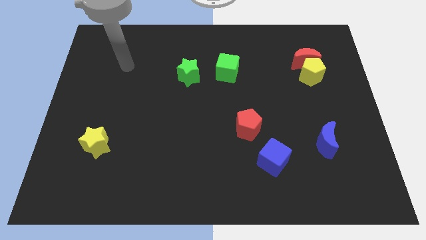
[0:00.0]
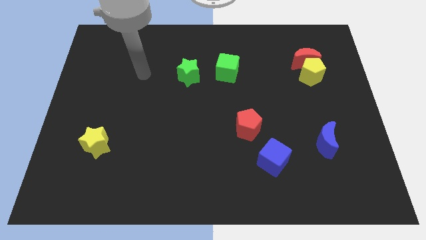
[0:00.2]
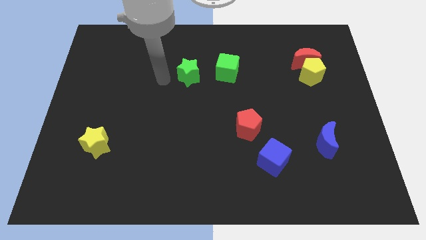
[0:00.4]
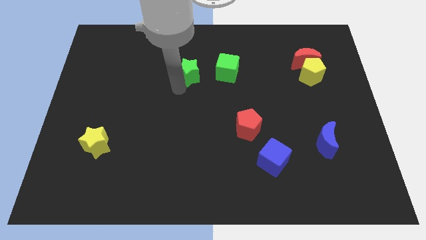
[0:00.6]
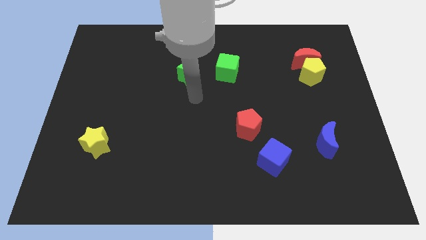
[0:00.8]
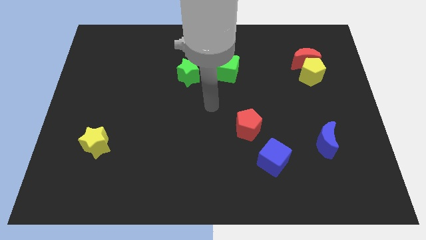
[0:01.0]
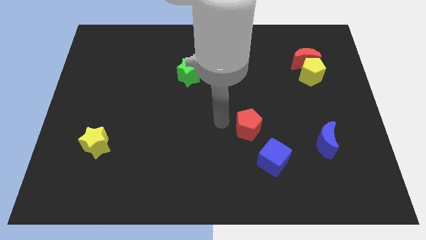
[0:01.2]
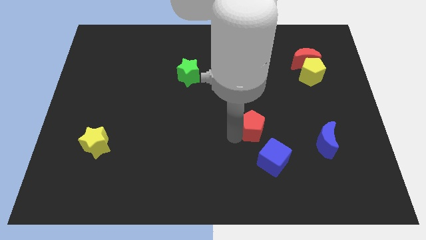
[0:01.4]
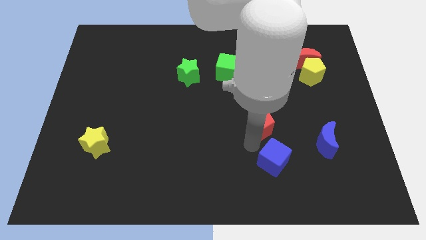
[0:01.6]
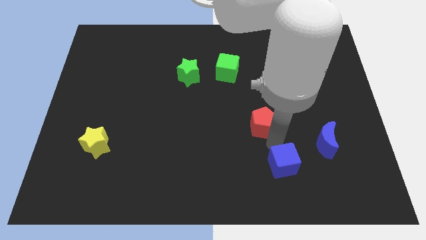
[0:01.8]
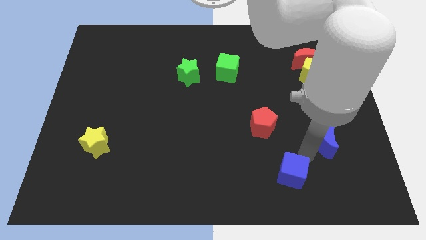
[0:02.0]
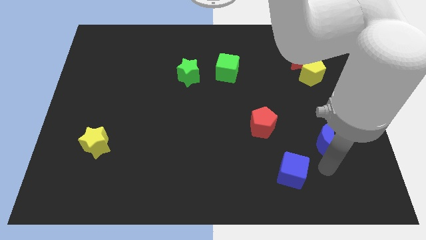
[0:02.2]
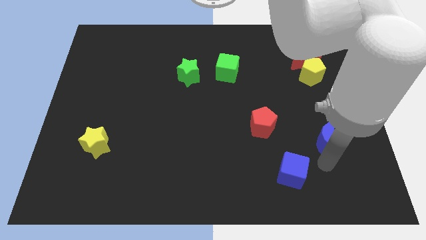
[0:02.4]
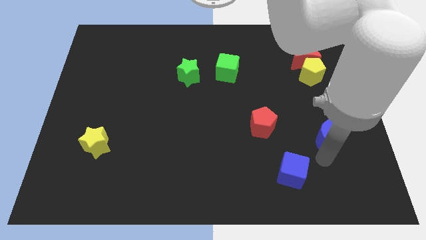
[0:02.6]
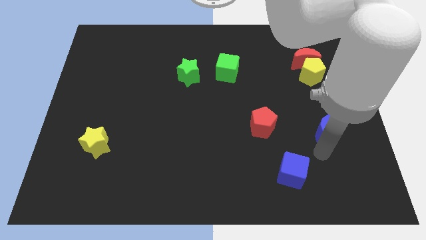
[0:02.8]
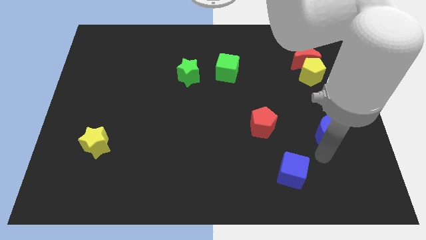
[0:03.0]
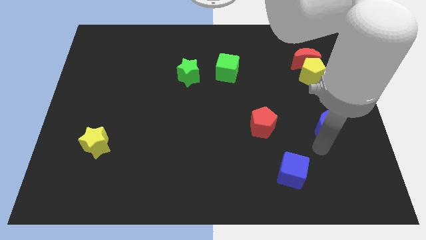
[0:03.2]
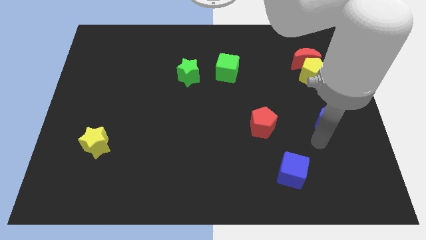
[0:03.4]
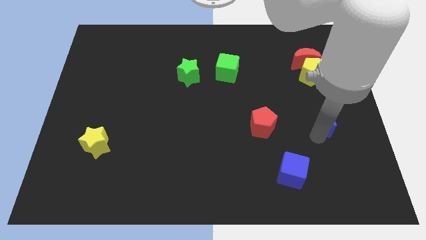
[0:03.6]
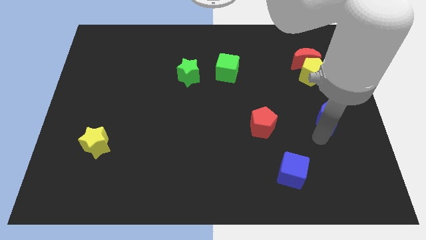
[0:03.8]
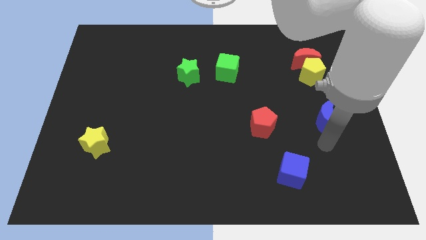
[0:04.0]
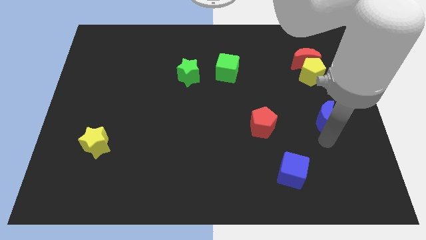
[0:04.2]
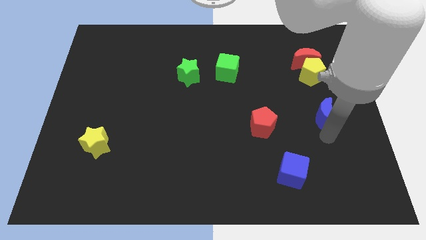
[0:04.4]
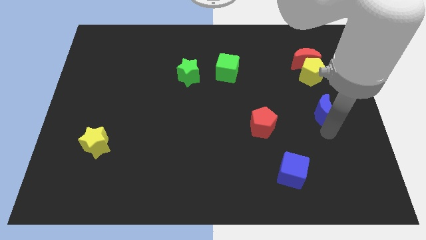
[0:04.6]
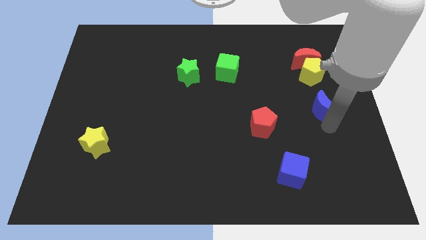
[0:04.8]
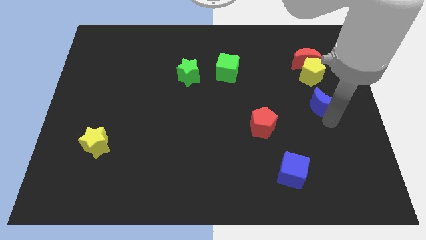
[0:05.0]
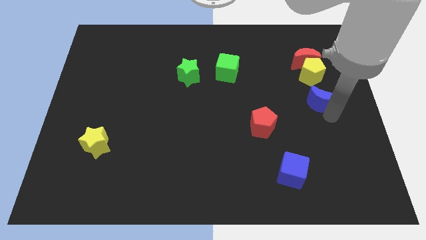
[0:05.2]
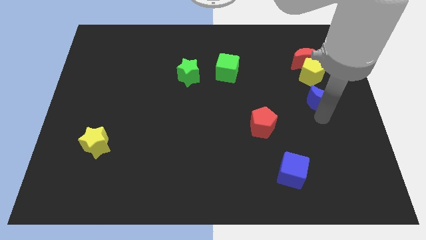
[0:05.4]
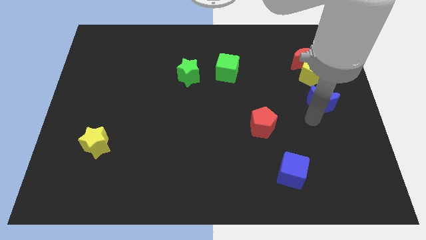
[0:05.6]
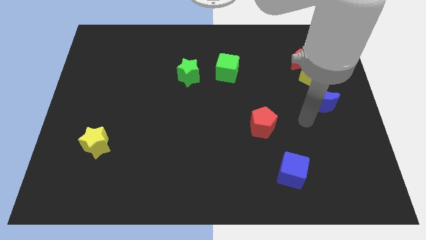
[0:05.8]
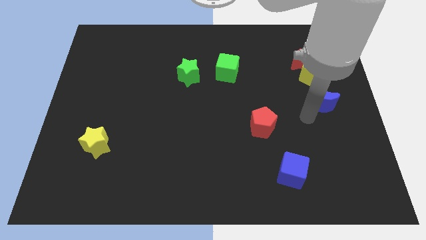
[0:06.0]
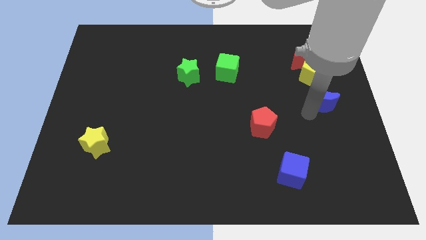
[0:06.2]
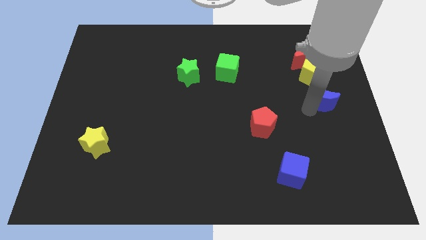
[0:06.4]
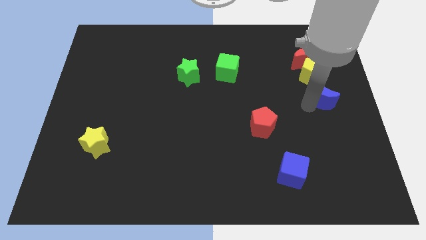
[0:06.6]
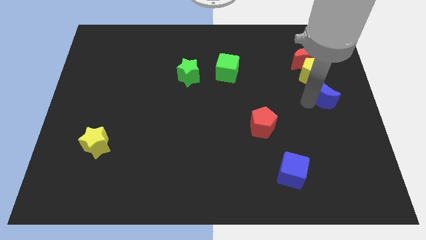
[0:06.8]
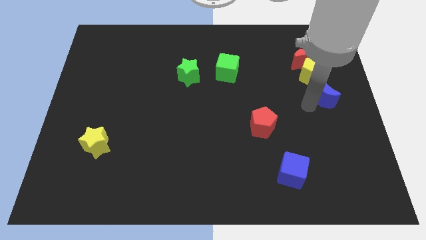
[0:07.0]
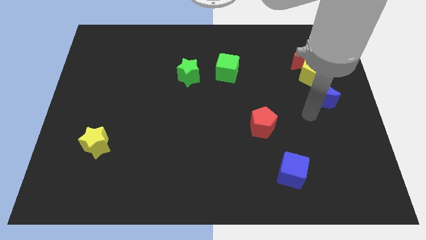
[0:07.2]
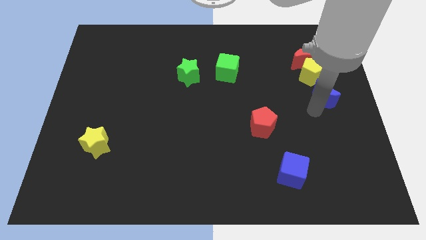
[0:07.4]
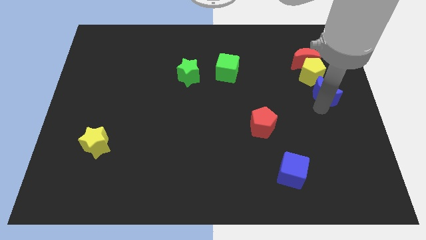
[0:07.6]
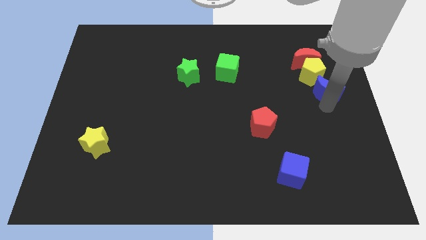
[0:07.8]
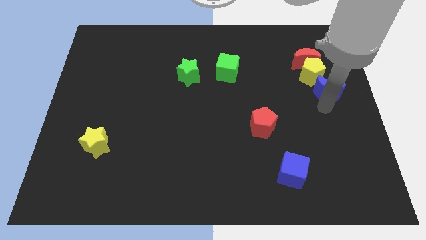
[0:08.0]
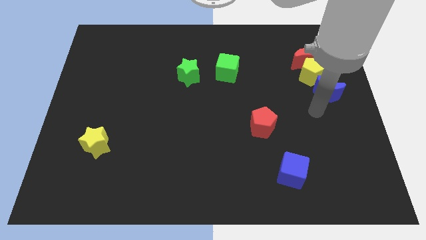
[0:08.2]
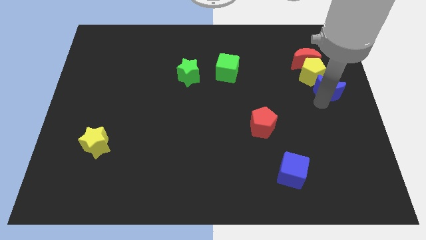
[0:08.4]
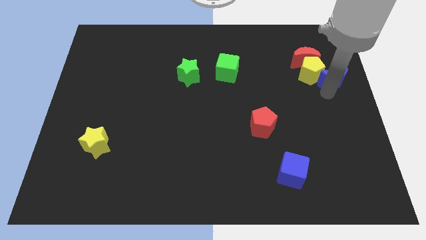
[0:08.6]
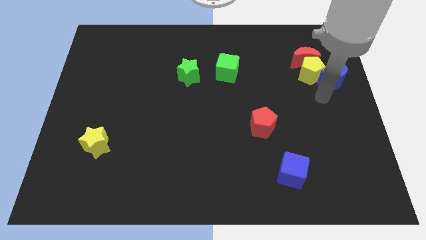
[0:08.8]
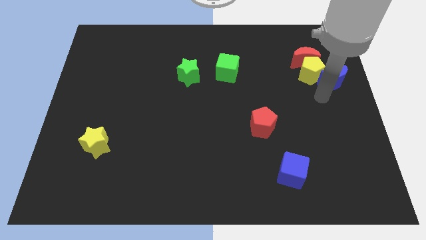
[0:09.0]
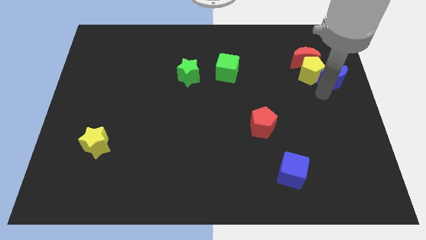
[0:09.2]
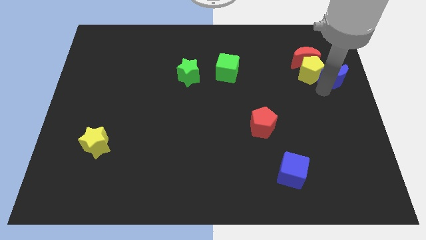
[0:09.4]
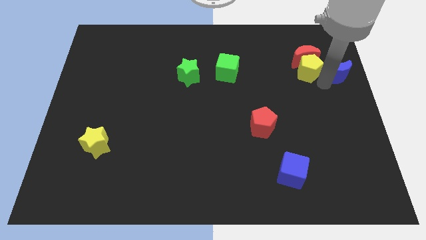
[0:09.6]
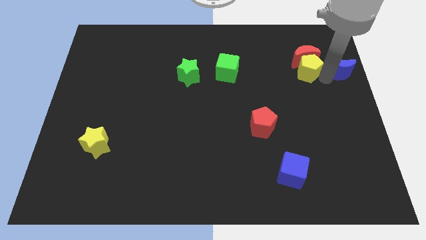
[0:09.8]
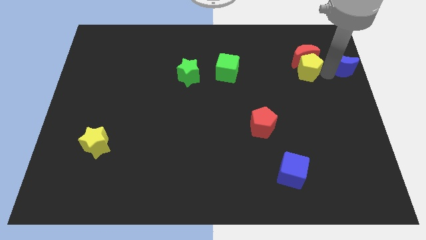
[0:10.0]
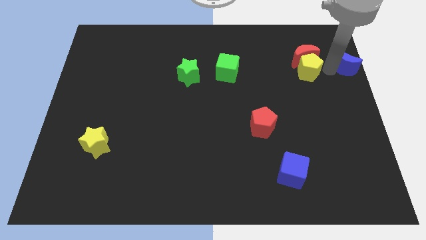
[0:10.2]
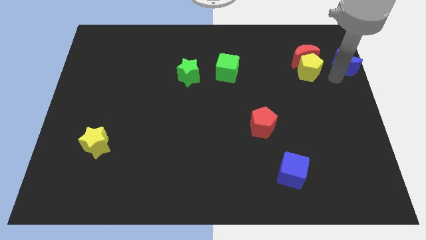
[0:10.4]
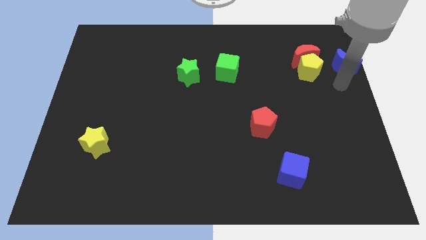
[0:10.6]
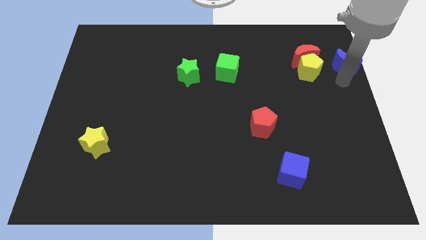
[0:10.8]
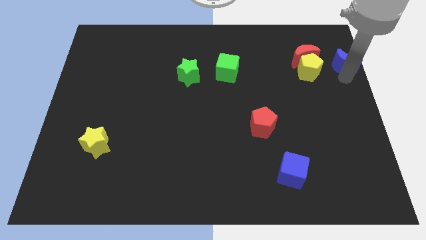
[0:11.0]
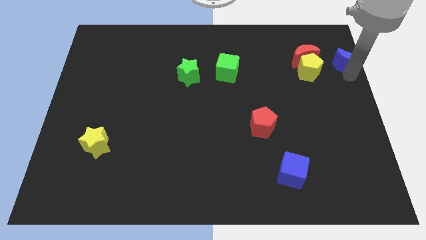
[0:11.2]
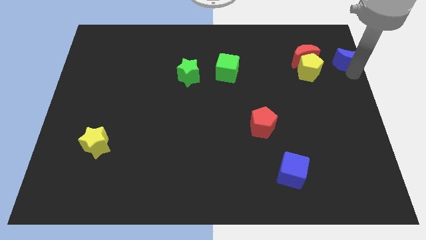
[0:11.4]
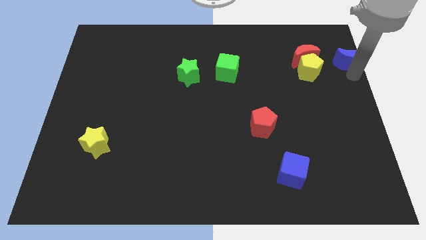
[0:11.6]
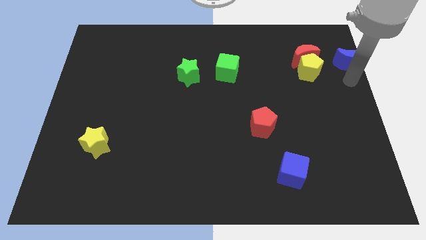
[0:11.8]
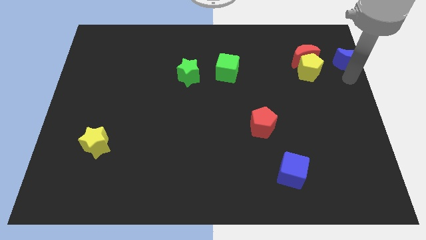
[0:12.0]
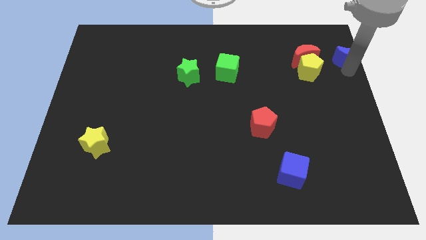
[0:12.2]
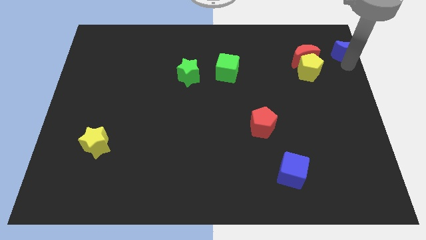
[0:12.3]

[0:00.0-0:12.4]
slide the blue moon to the top right
